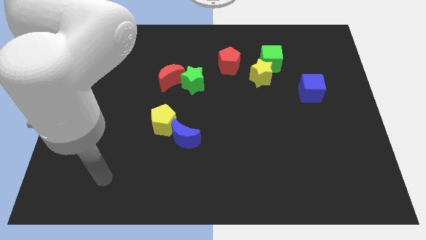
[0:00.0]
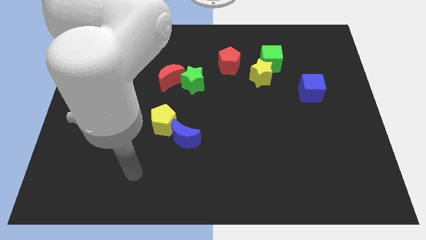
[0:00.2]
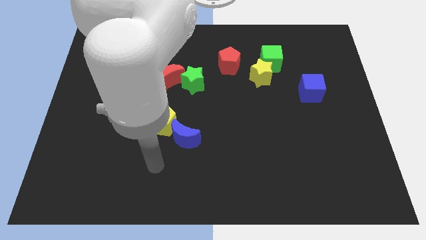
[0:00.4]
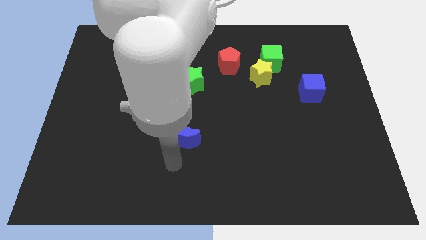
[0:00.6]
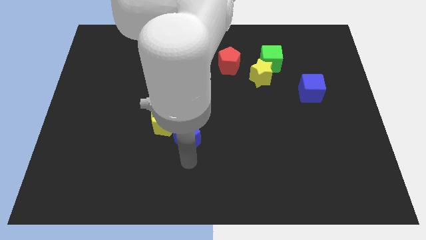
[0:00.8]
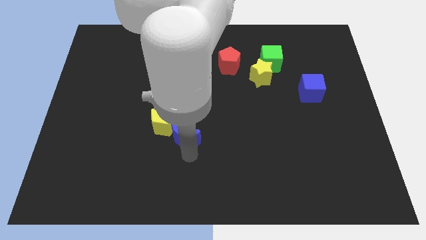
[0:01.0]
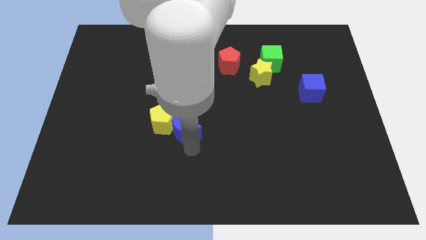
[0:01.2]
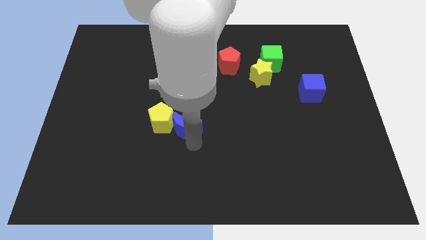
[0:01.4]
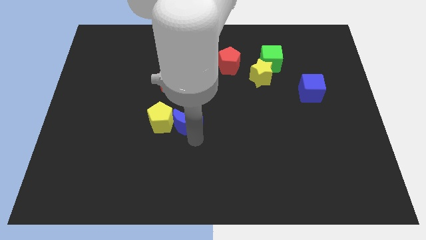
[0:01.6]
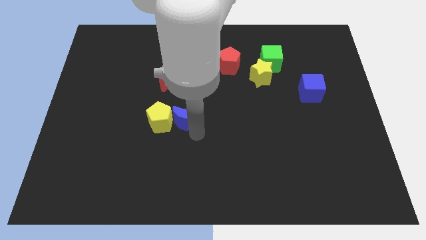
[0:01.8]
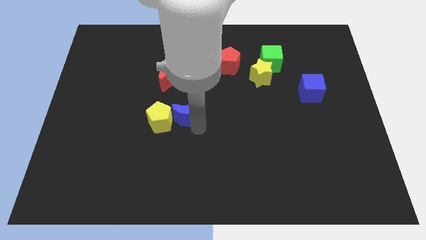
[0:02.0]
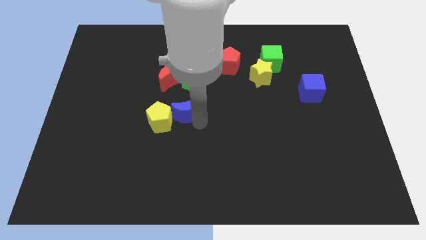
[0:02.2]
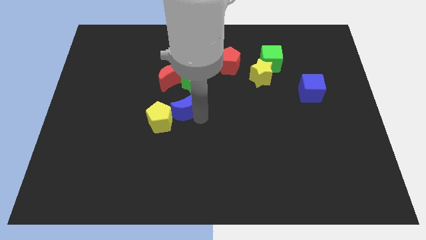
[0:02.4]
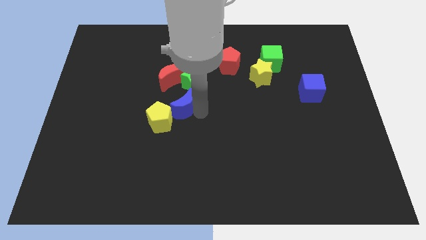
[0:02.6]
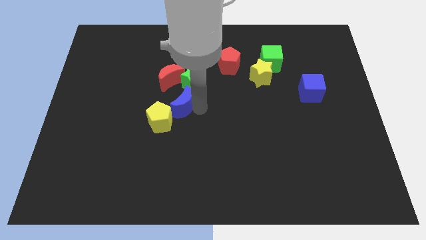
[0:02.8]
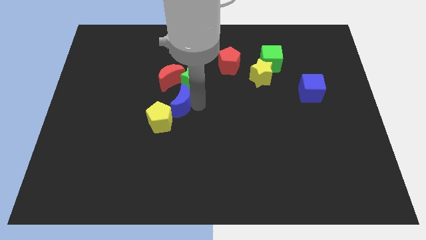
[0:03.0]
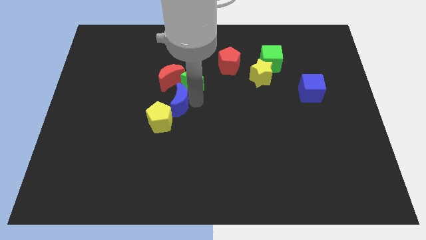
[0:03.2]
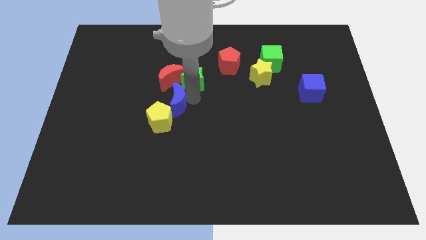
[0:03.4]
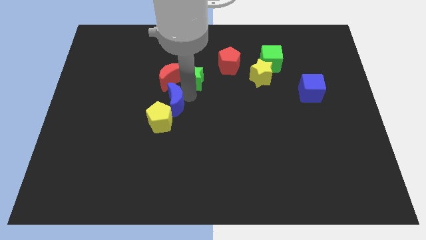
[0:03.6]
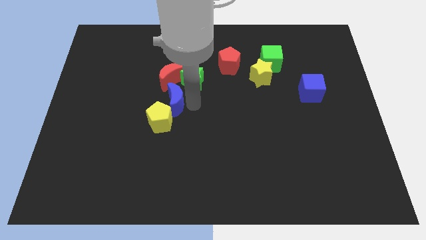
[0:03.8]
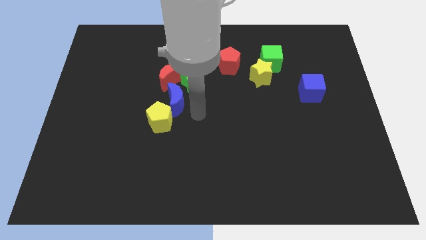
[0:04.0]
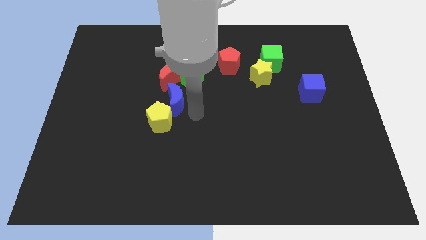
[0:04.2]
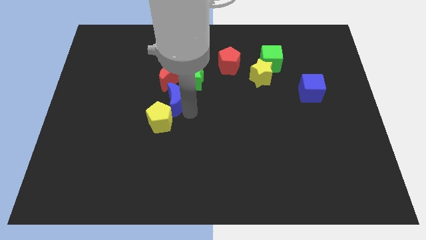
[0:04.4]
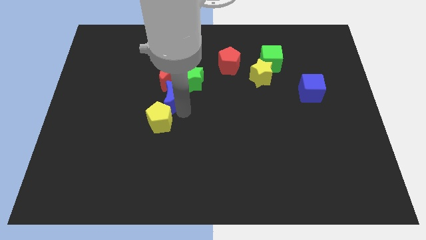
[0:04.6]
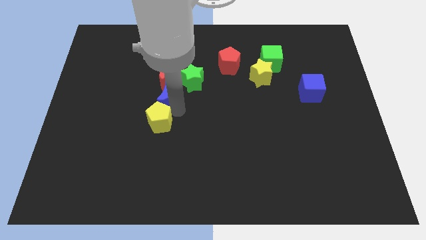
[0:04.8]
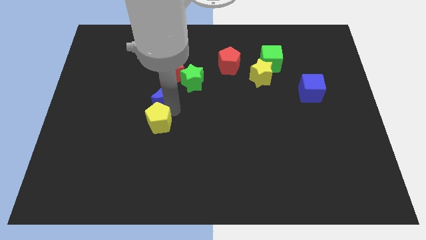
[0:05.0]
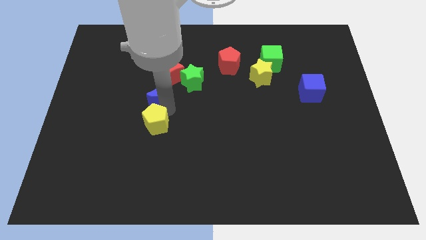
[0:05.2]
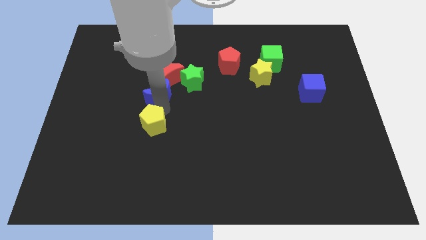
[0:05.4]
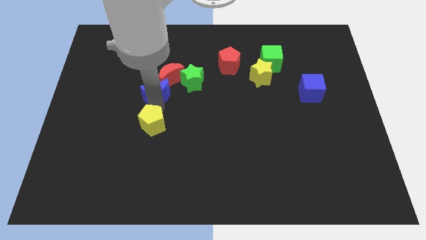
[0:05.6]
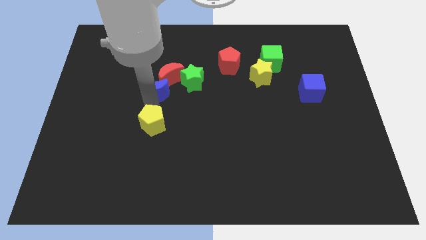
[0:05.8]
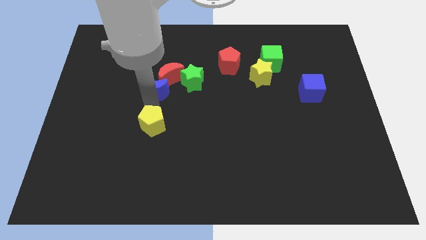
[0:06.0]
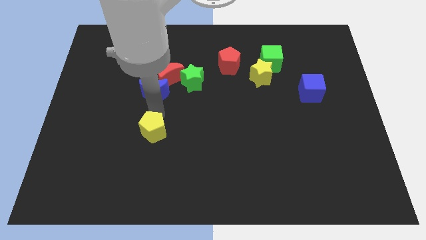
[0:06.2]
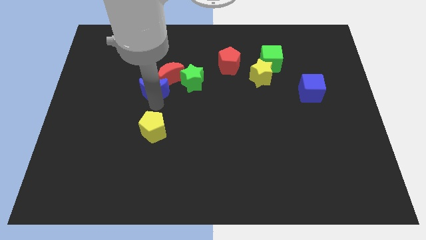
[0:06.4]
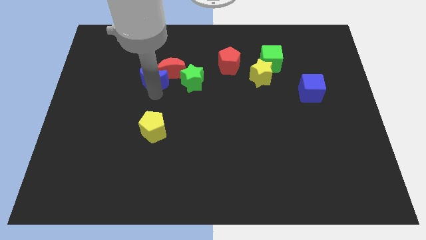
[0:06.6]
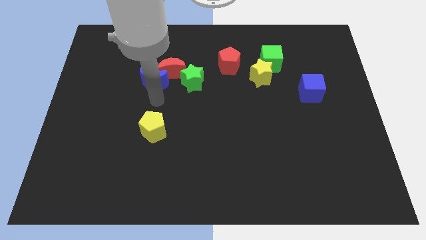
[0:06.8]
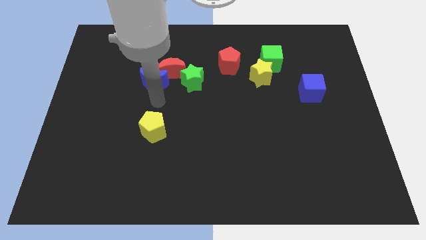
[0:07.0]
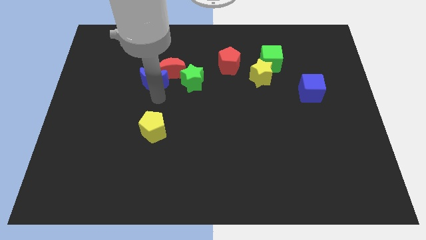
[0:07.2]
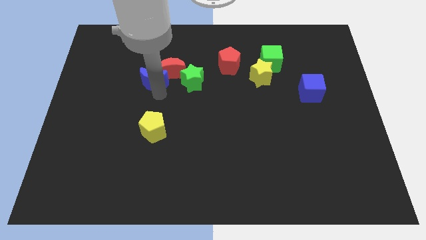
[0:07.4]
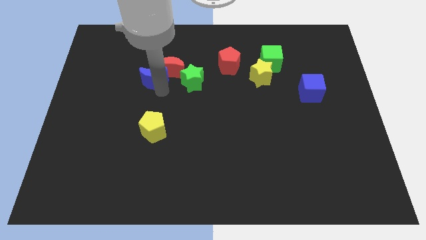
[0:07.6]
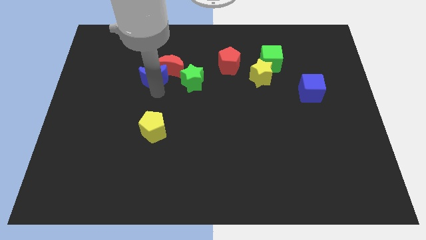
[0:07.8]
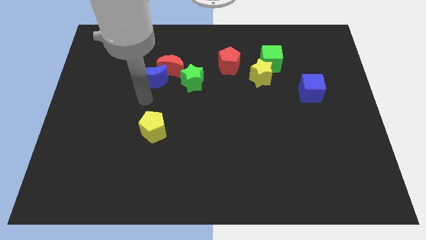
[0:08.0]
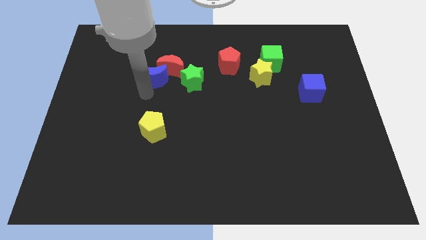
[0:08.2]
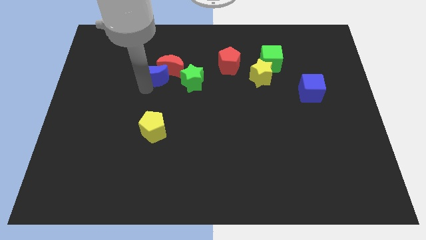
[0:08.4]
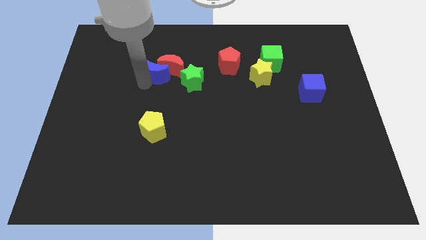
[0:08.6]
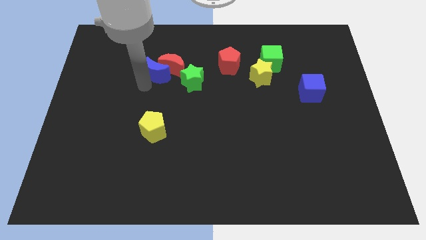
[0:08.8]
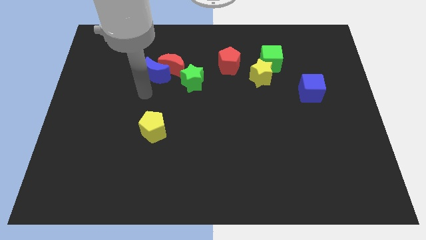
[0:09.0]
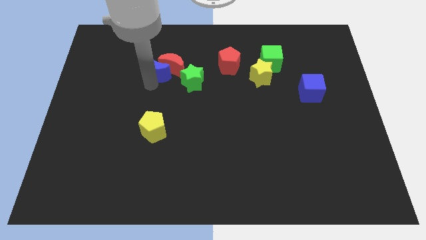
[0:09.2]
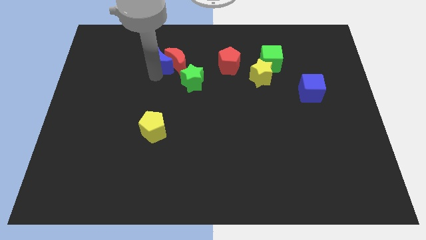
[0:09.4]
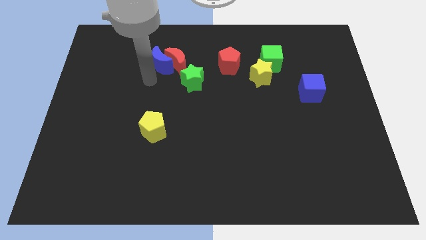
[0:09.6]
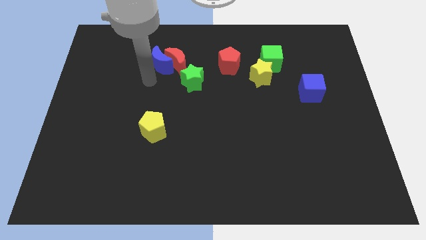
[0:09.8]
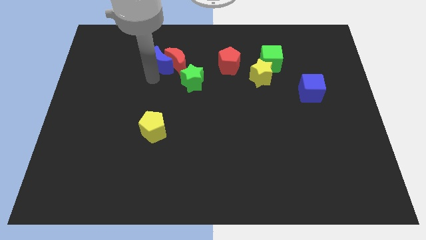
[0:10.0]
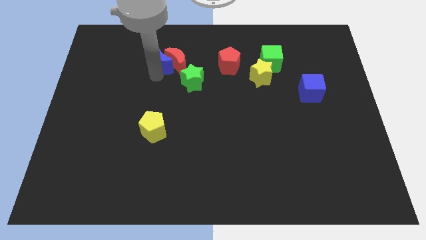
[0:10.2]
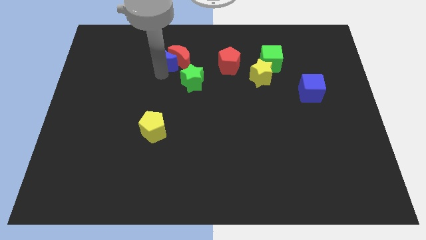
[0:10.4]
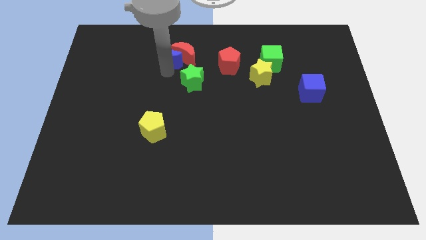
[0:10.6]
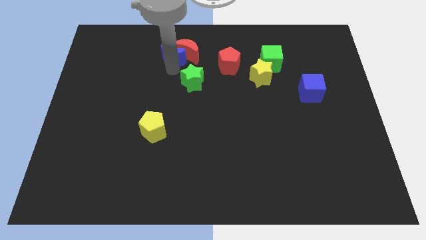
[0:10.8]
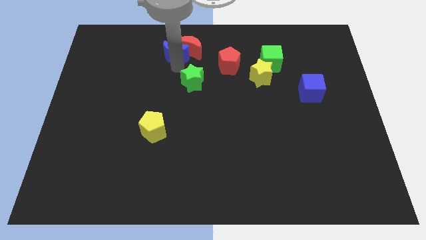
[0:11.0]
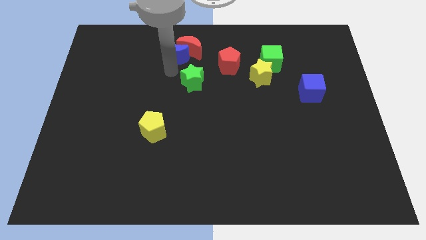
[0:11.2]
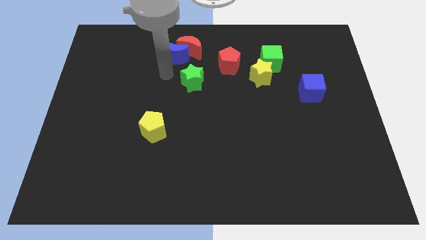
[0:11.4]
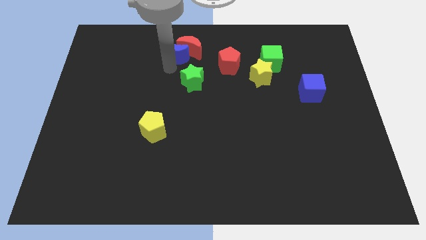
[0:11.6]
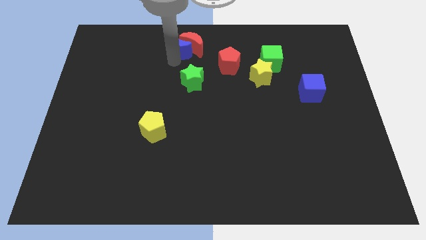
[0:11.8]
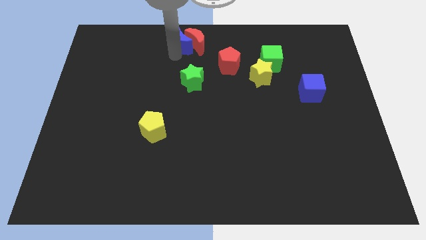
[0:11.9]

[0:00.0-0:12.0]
put the blue moon to the top

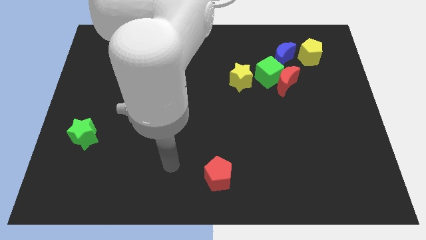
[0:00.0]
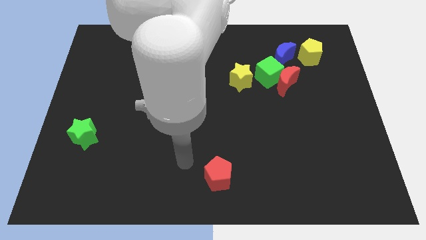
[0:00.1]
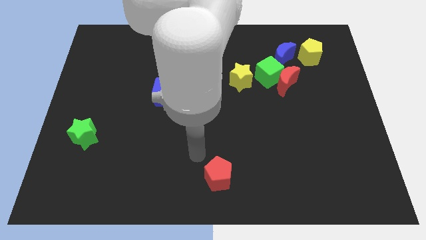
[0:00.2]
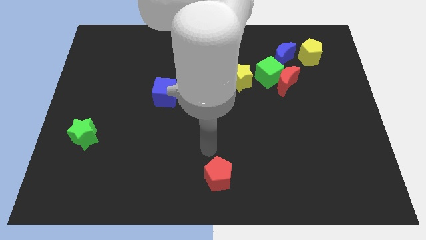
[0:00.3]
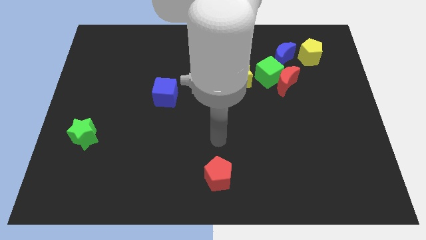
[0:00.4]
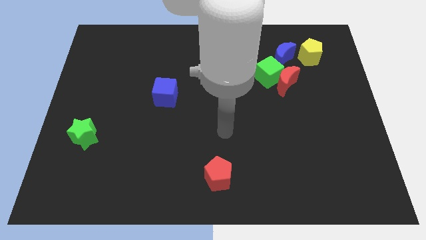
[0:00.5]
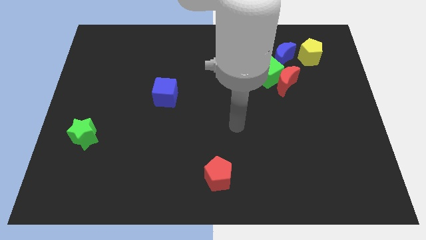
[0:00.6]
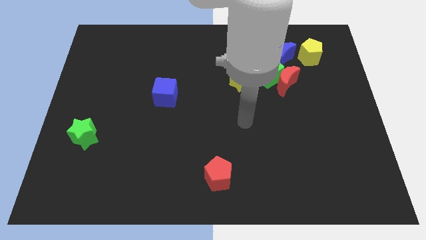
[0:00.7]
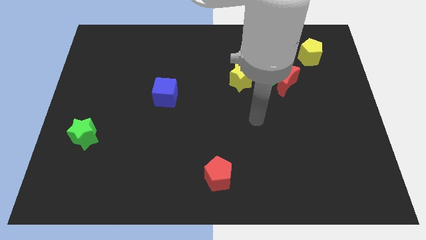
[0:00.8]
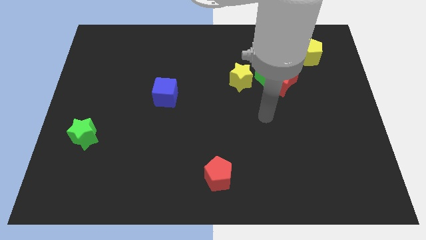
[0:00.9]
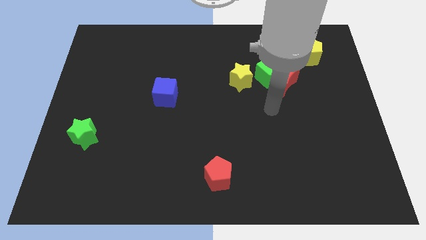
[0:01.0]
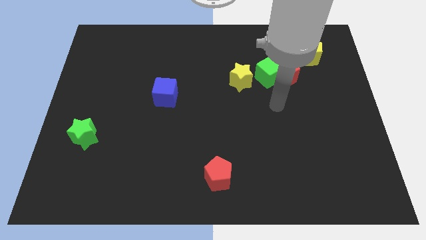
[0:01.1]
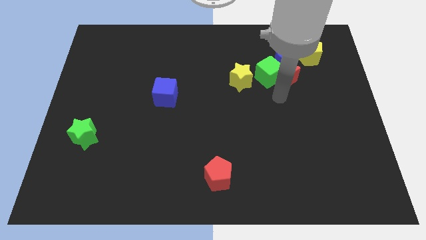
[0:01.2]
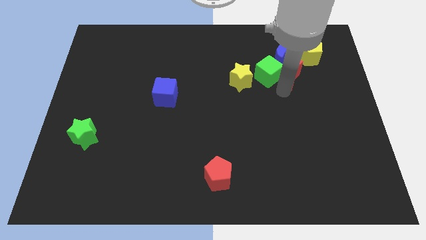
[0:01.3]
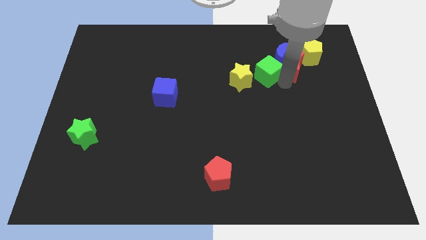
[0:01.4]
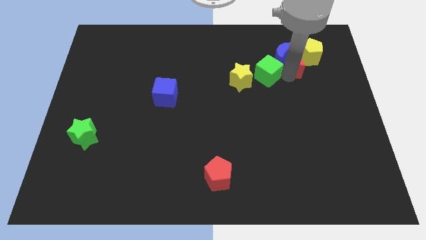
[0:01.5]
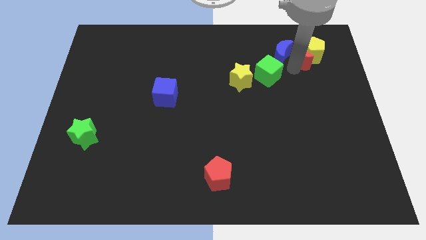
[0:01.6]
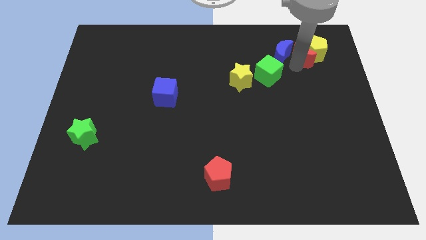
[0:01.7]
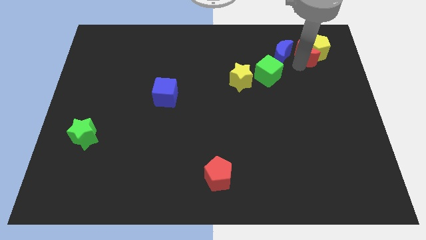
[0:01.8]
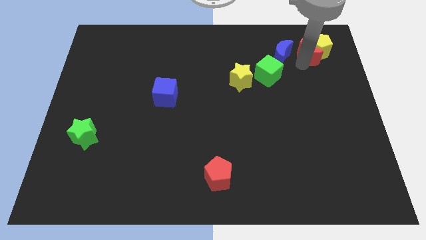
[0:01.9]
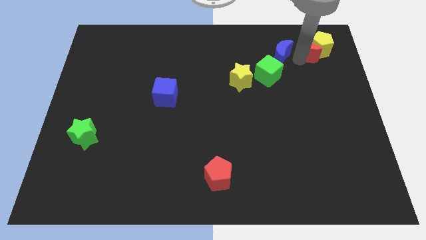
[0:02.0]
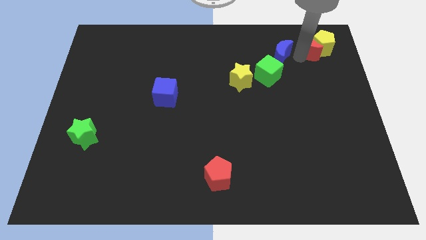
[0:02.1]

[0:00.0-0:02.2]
put the yellow pentagon to the top right corner
